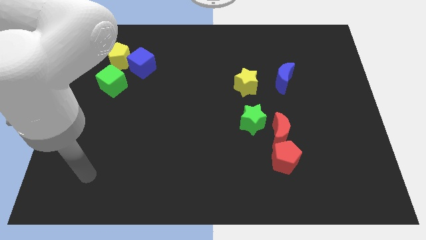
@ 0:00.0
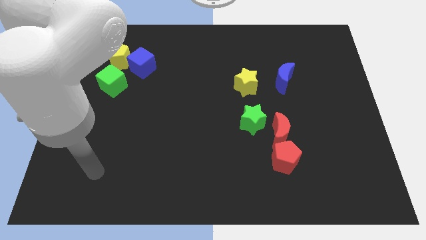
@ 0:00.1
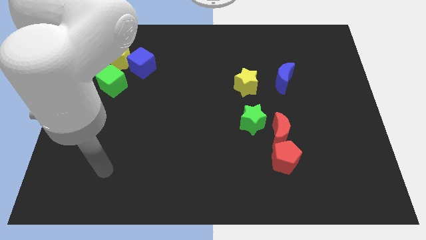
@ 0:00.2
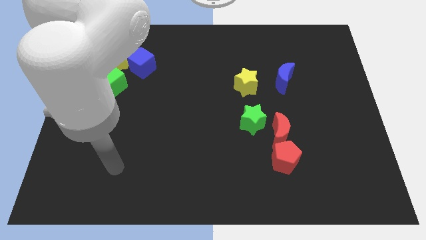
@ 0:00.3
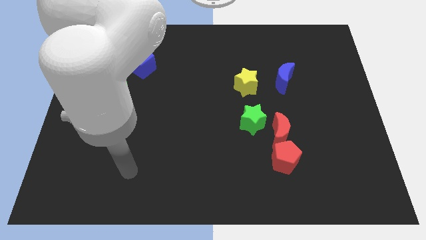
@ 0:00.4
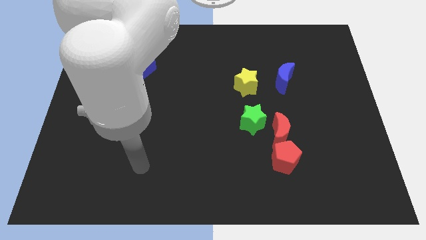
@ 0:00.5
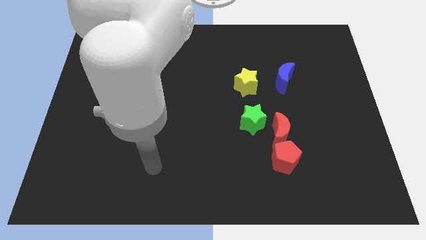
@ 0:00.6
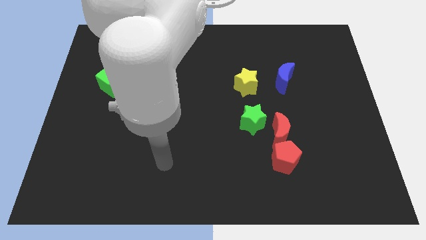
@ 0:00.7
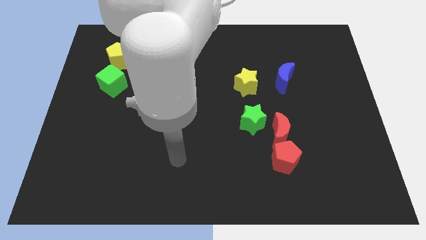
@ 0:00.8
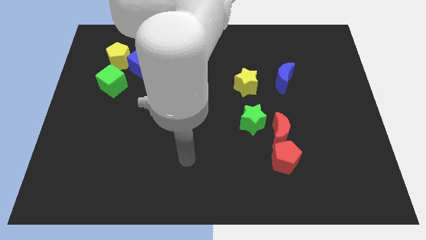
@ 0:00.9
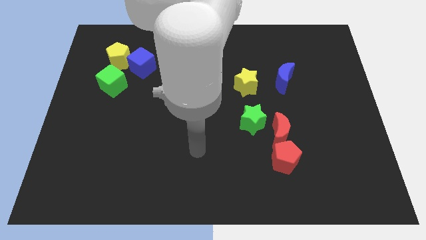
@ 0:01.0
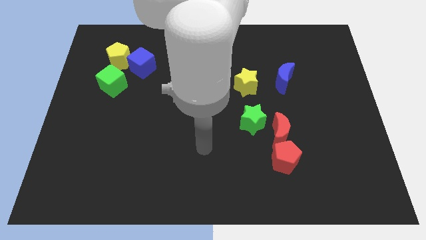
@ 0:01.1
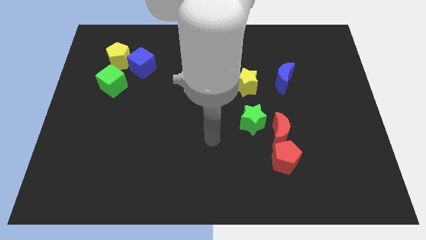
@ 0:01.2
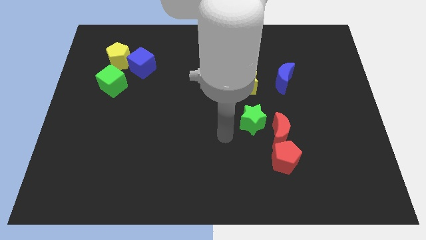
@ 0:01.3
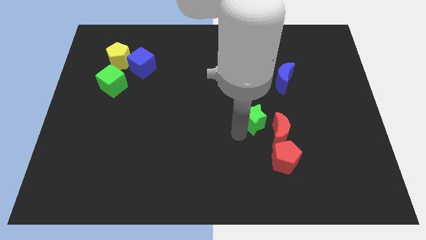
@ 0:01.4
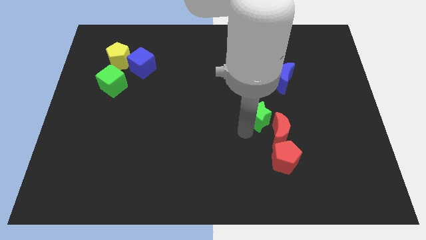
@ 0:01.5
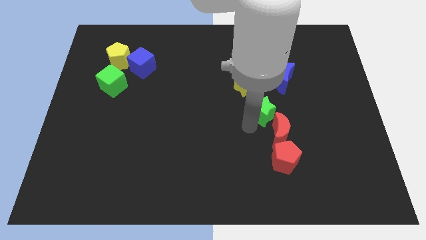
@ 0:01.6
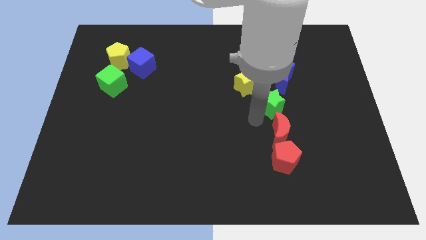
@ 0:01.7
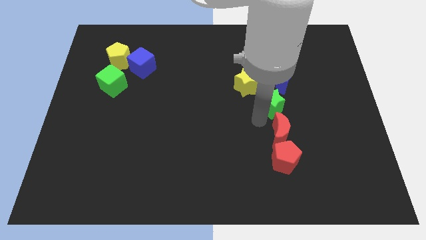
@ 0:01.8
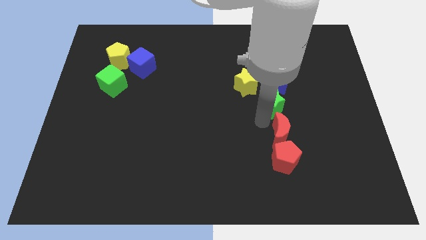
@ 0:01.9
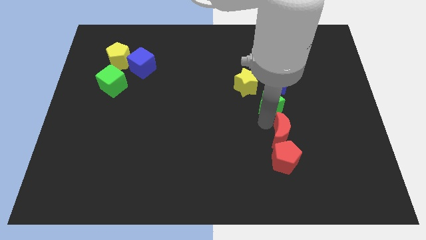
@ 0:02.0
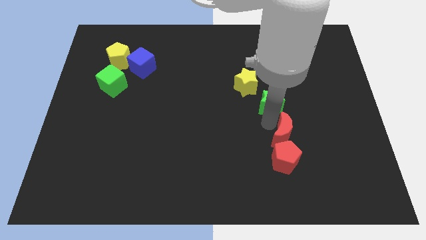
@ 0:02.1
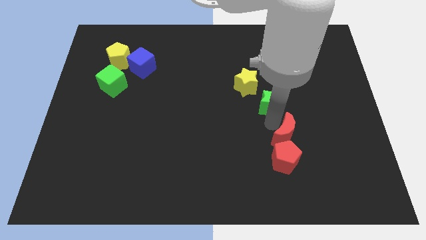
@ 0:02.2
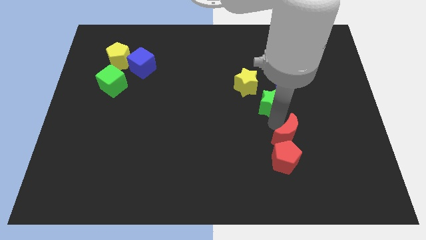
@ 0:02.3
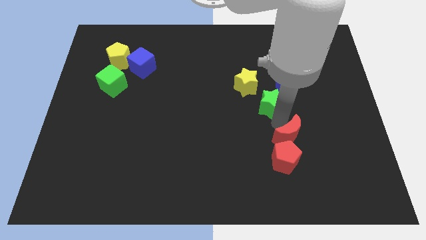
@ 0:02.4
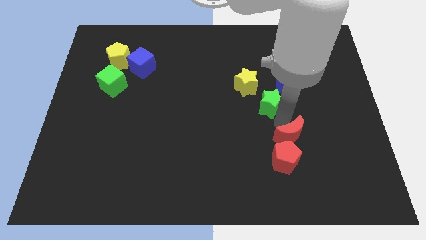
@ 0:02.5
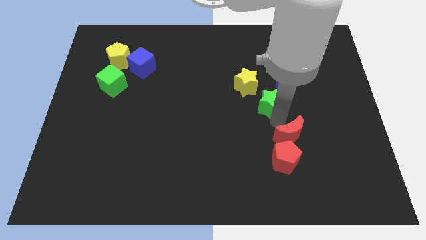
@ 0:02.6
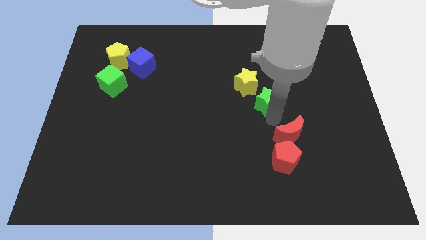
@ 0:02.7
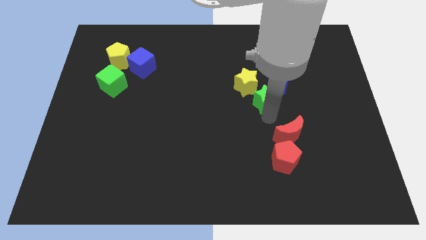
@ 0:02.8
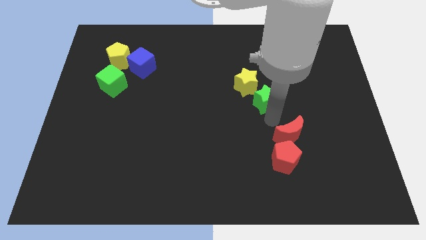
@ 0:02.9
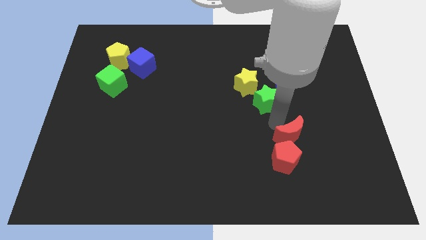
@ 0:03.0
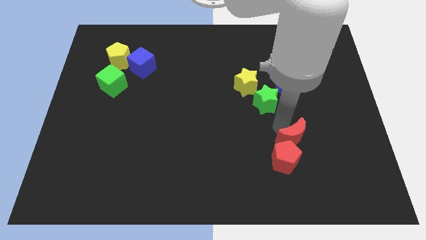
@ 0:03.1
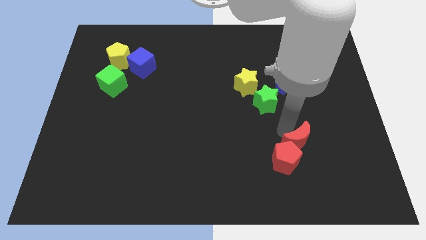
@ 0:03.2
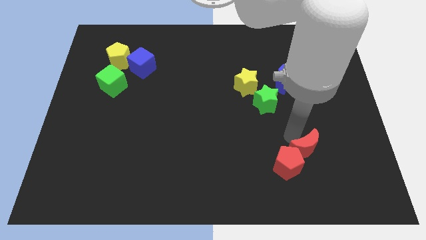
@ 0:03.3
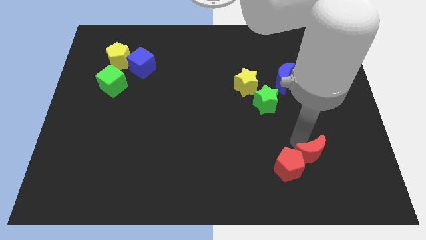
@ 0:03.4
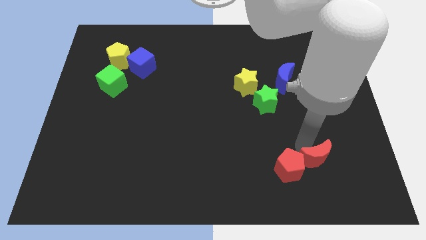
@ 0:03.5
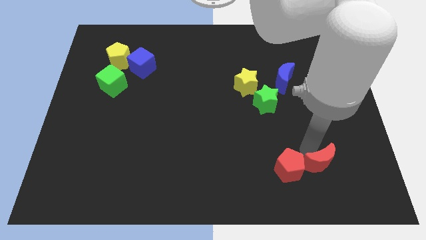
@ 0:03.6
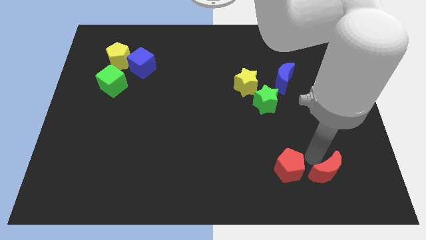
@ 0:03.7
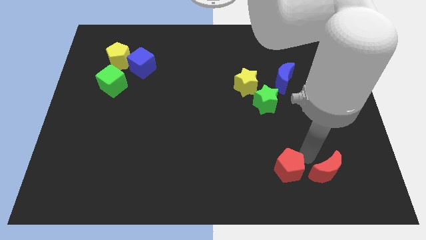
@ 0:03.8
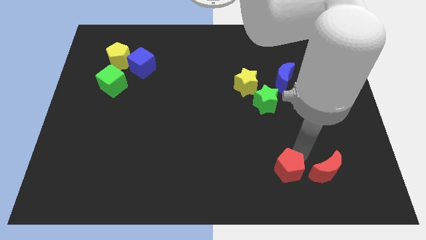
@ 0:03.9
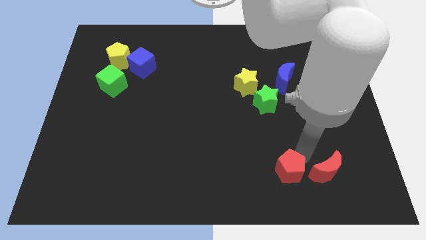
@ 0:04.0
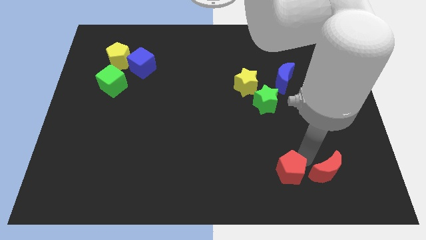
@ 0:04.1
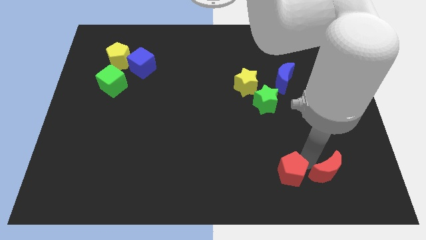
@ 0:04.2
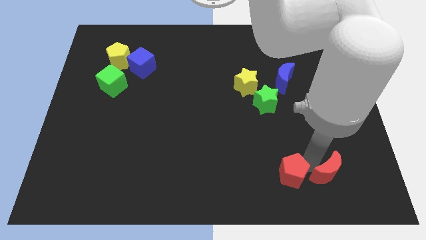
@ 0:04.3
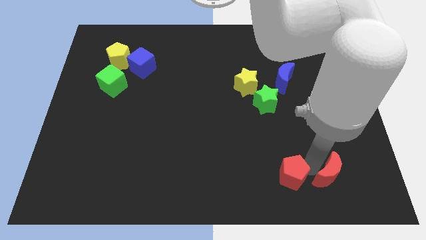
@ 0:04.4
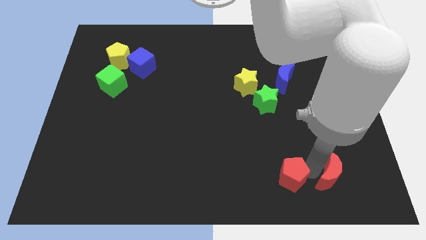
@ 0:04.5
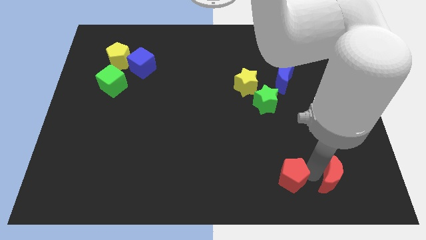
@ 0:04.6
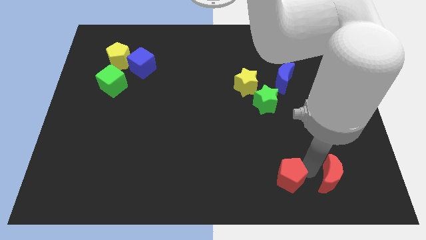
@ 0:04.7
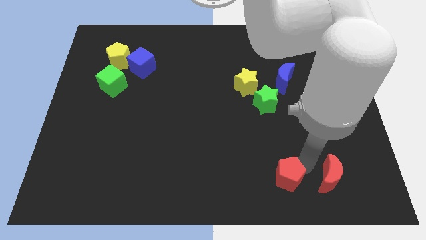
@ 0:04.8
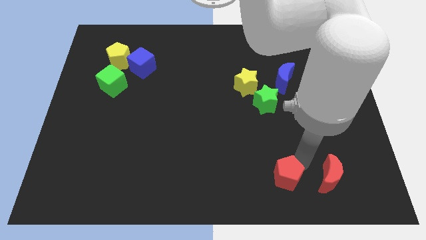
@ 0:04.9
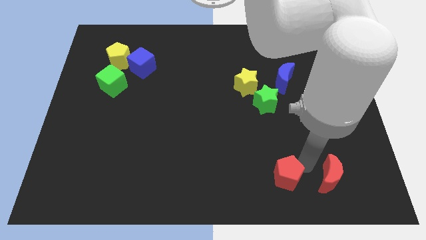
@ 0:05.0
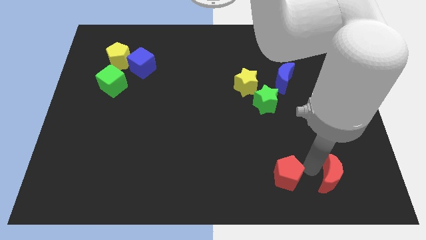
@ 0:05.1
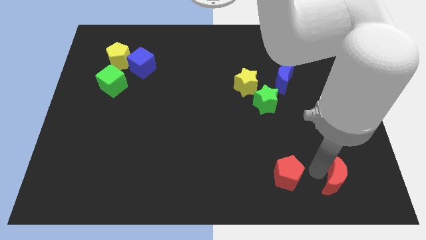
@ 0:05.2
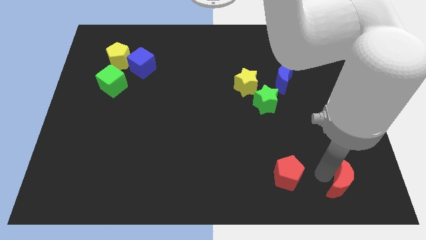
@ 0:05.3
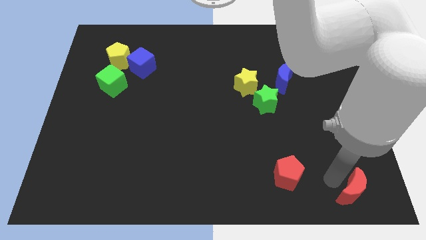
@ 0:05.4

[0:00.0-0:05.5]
slide the red moon to the bottom right of the board
